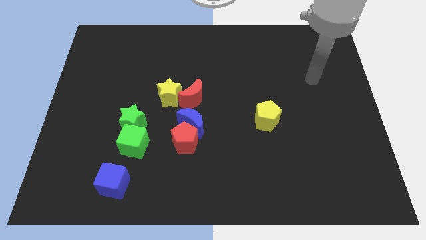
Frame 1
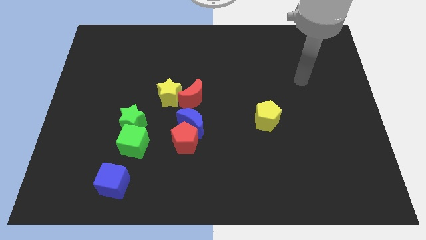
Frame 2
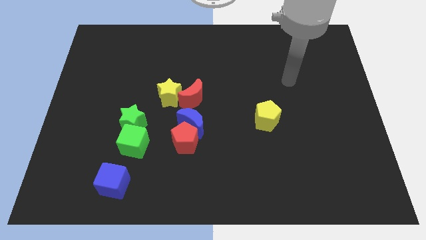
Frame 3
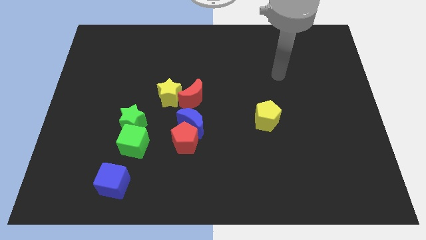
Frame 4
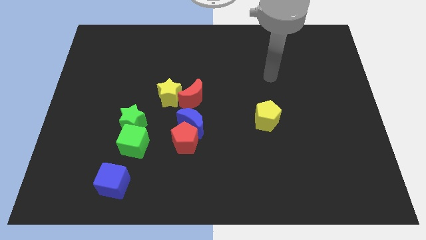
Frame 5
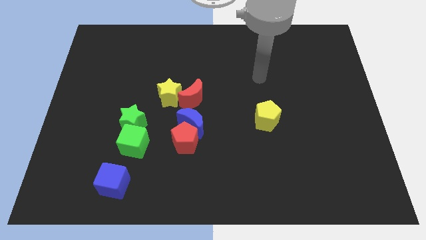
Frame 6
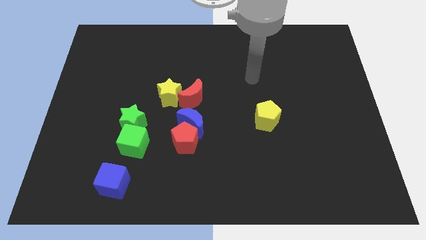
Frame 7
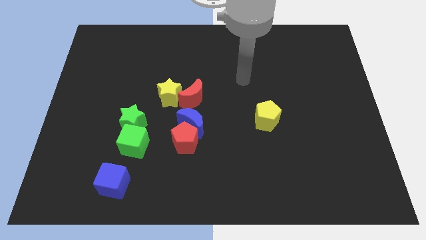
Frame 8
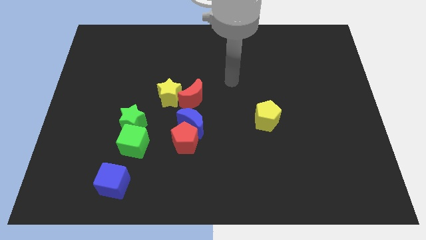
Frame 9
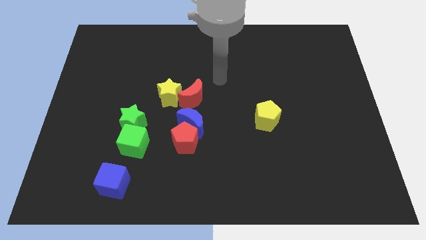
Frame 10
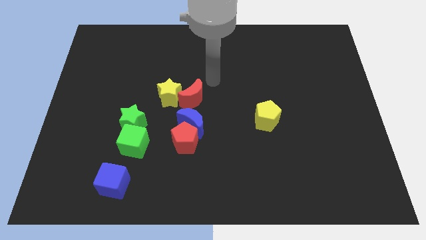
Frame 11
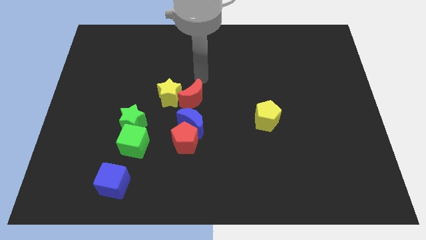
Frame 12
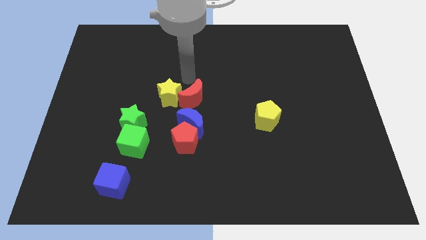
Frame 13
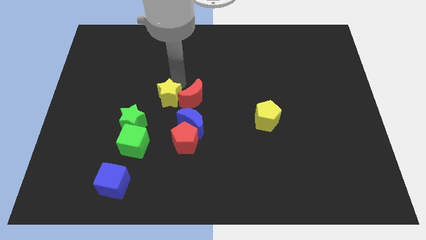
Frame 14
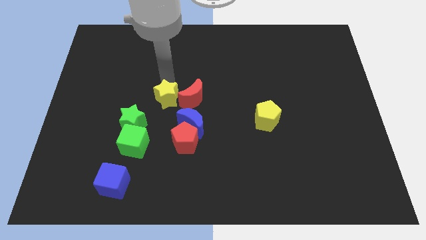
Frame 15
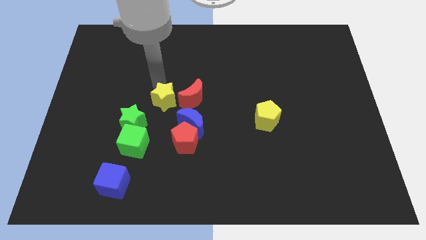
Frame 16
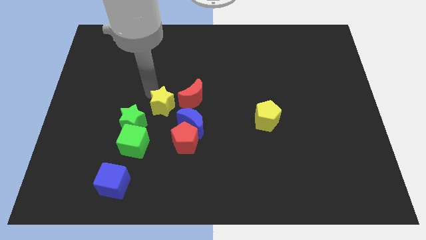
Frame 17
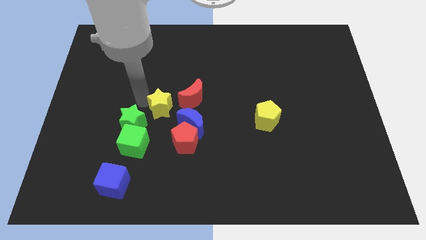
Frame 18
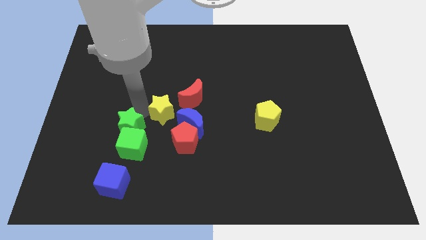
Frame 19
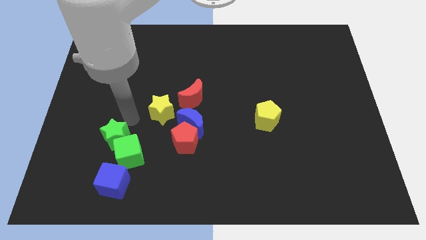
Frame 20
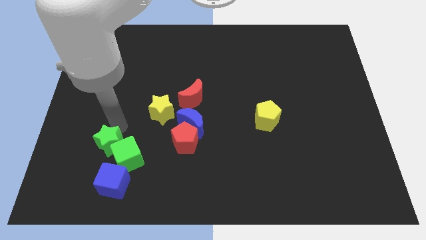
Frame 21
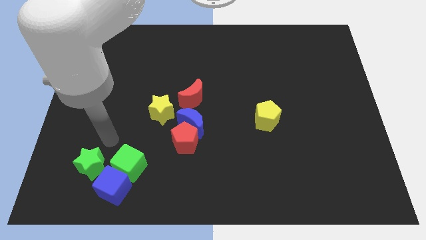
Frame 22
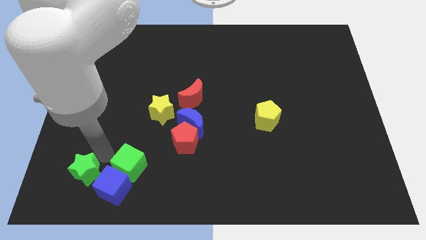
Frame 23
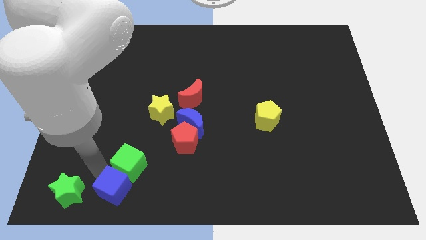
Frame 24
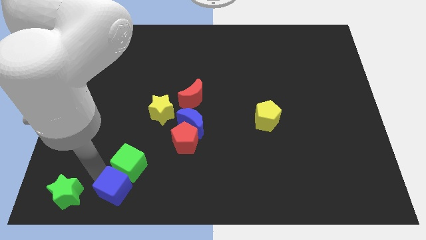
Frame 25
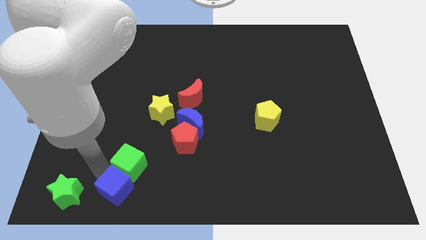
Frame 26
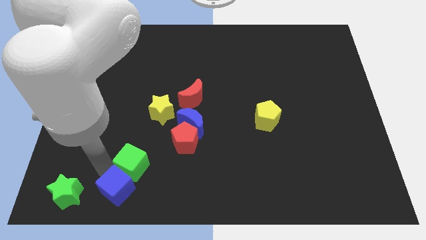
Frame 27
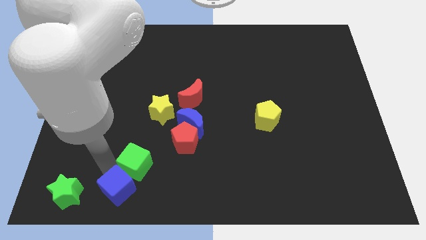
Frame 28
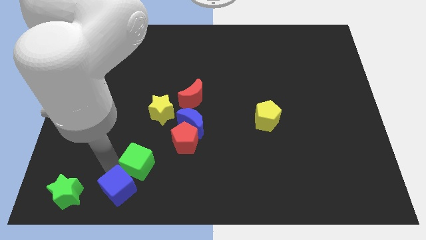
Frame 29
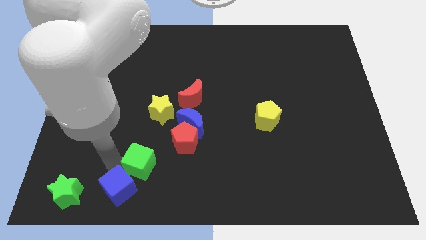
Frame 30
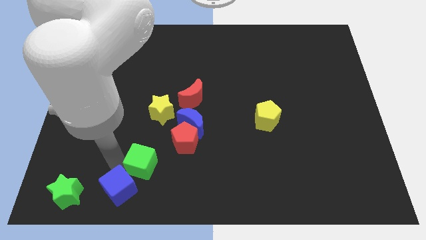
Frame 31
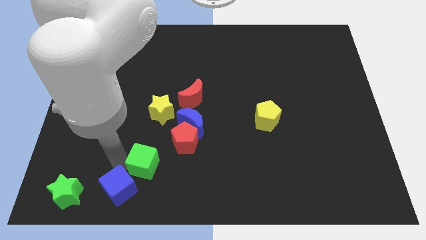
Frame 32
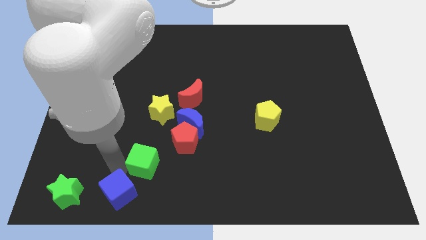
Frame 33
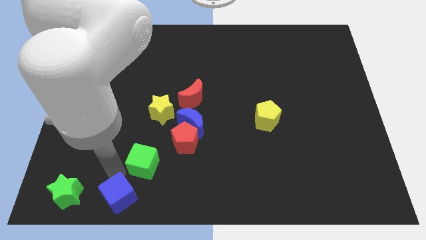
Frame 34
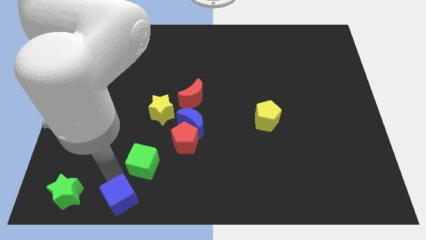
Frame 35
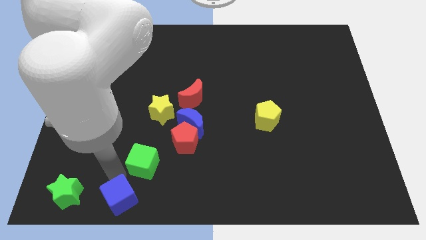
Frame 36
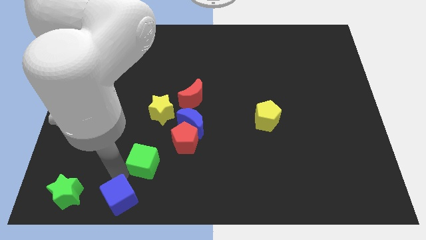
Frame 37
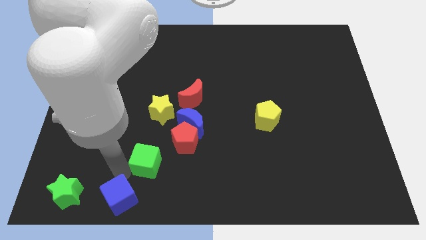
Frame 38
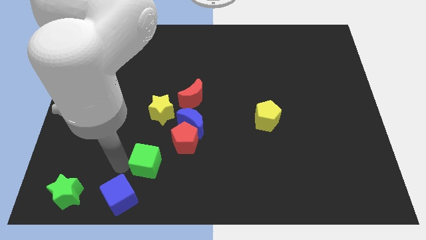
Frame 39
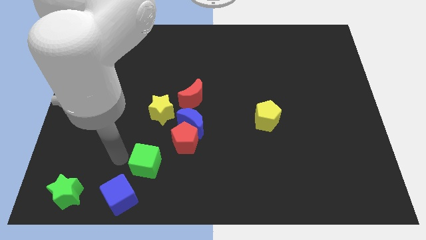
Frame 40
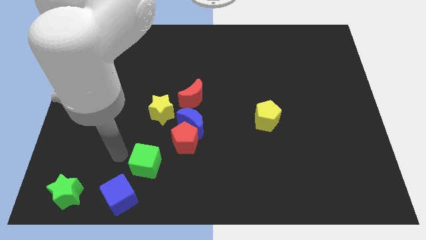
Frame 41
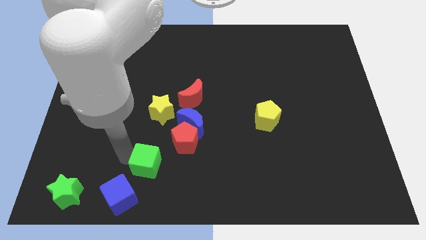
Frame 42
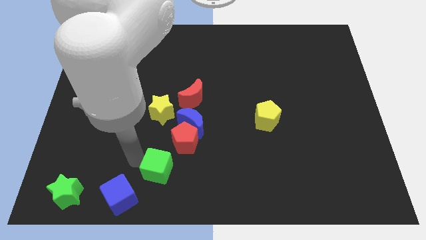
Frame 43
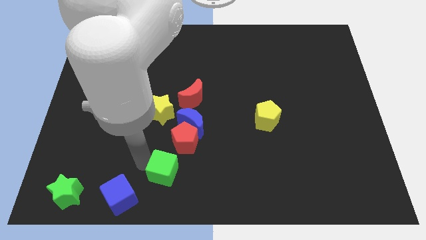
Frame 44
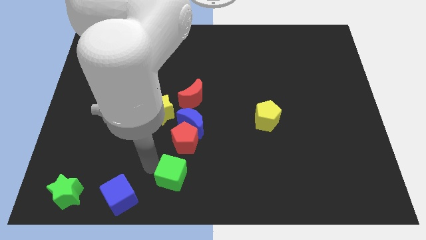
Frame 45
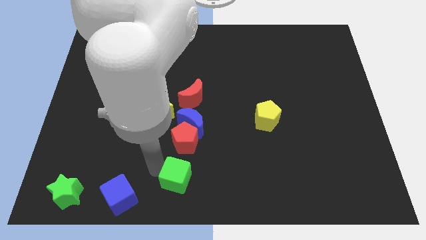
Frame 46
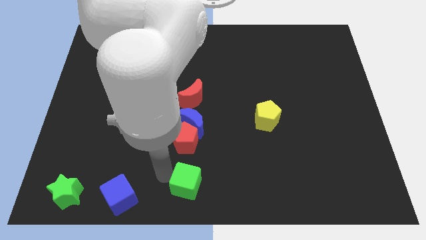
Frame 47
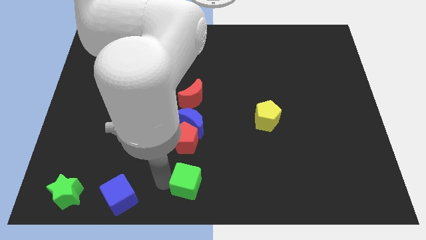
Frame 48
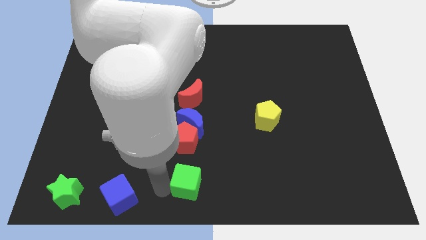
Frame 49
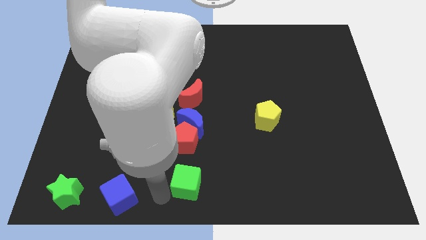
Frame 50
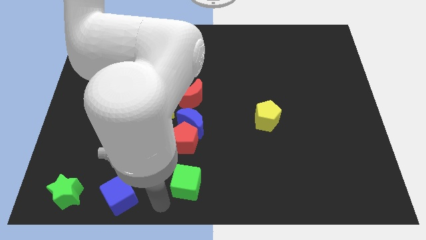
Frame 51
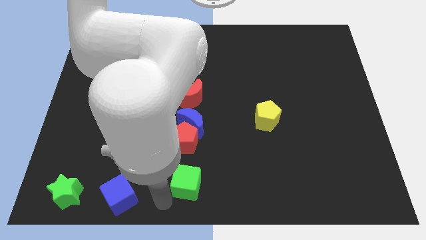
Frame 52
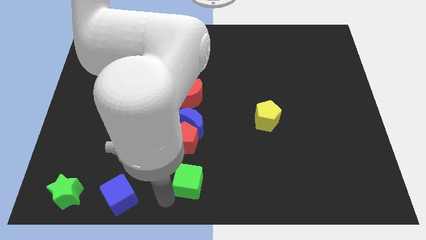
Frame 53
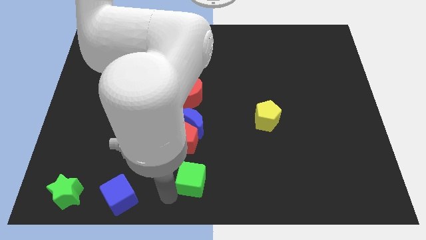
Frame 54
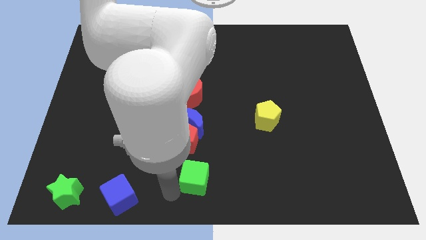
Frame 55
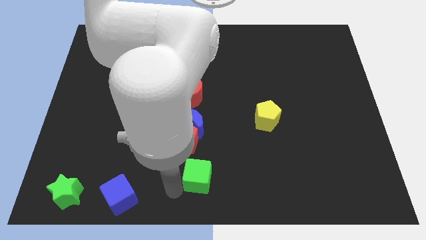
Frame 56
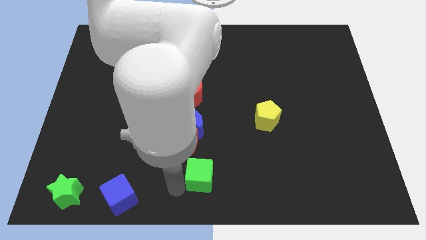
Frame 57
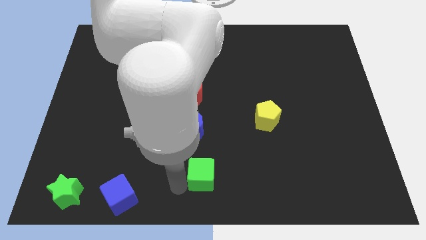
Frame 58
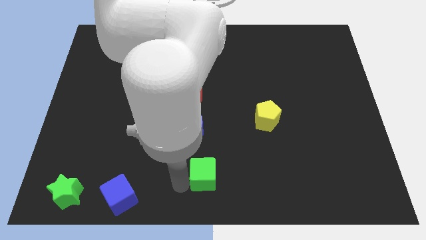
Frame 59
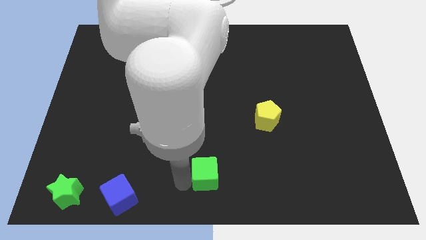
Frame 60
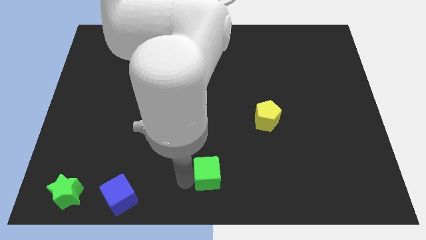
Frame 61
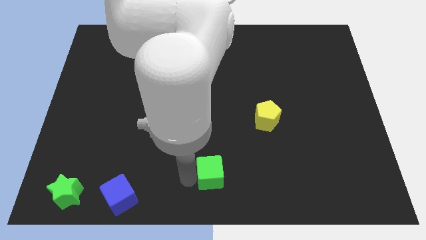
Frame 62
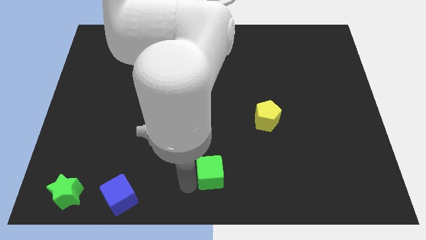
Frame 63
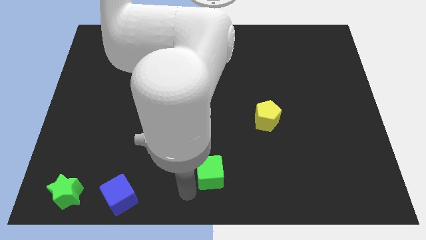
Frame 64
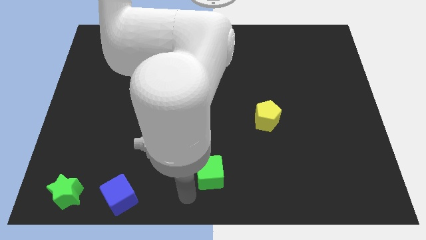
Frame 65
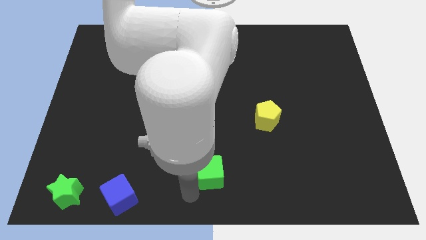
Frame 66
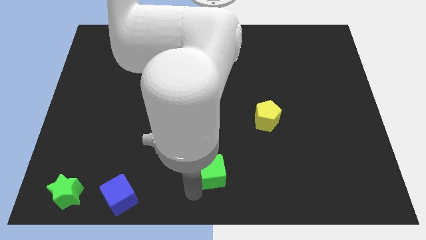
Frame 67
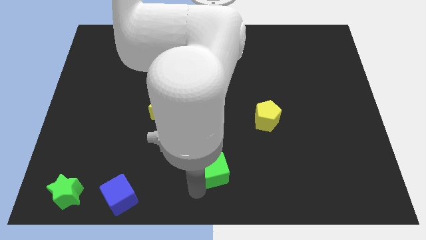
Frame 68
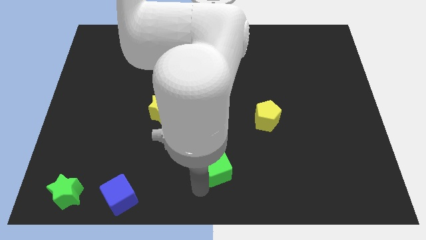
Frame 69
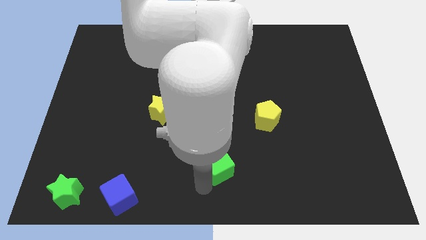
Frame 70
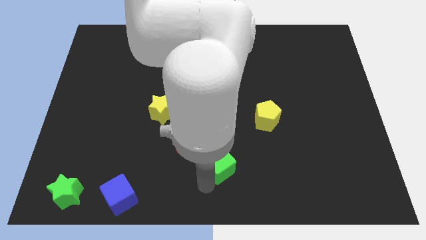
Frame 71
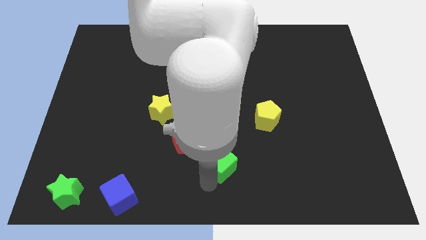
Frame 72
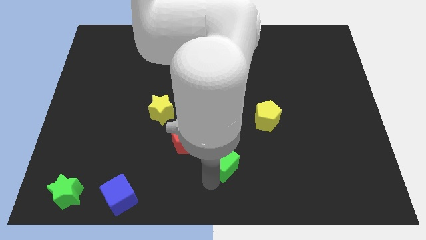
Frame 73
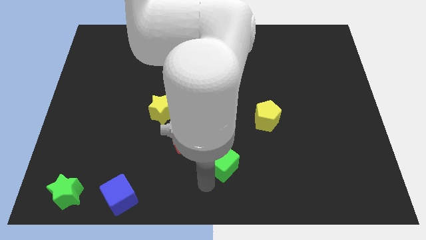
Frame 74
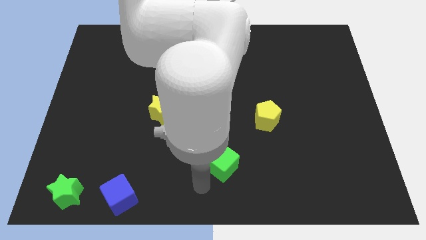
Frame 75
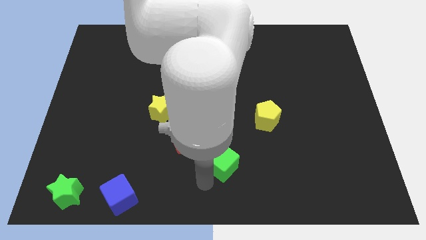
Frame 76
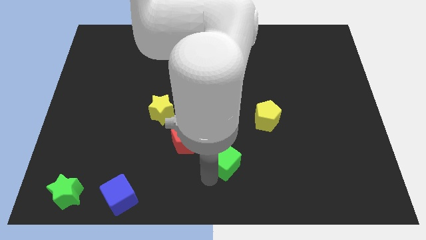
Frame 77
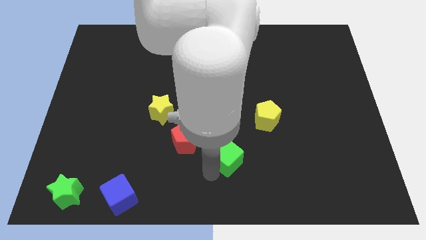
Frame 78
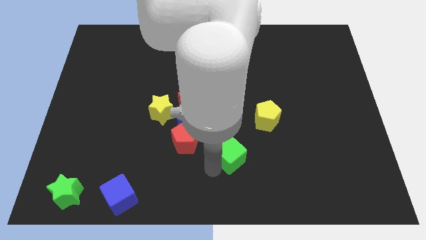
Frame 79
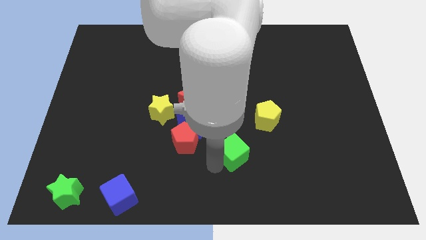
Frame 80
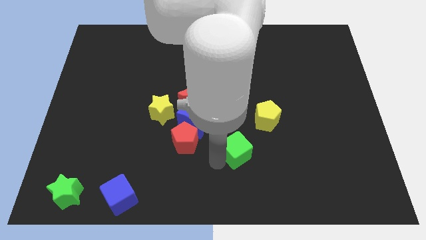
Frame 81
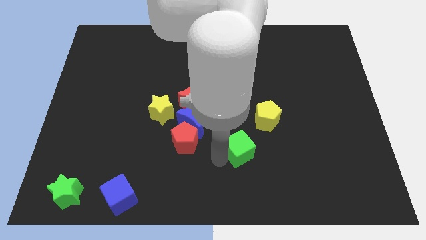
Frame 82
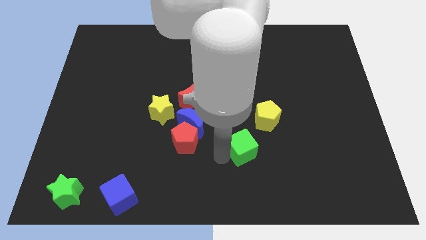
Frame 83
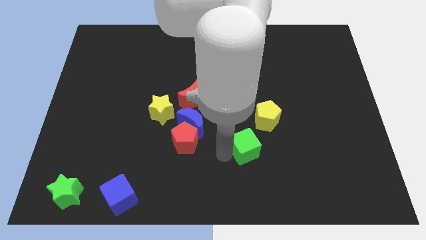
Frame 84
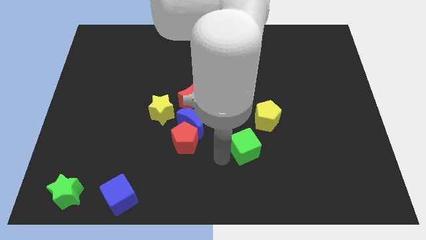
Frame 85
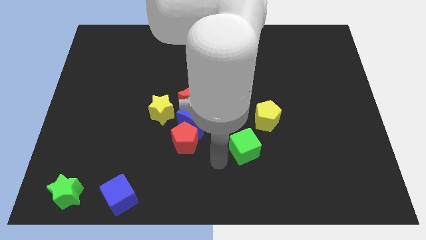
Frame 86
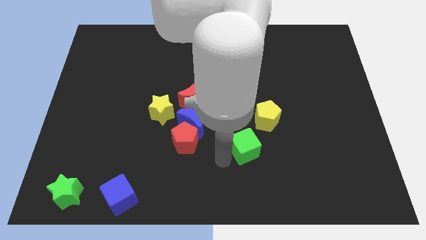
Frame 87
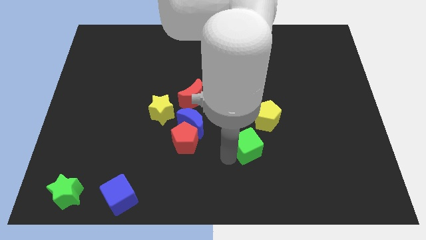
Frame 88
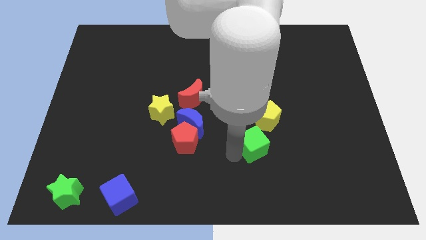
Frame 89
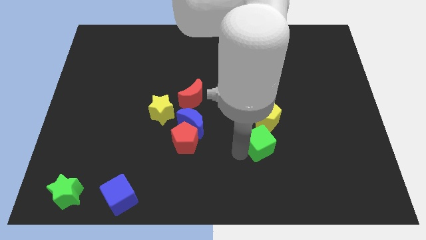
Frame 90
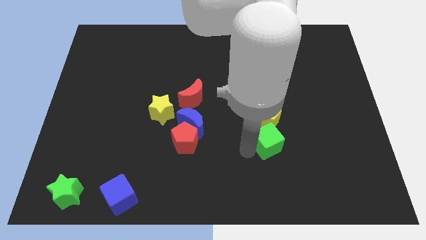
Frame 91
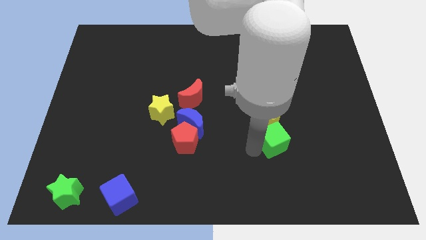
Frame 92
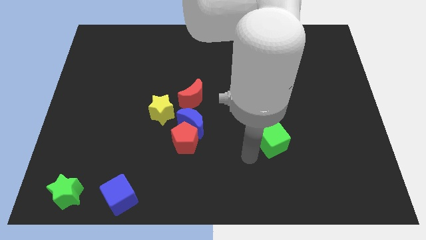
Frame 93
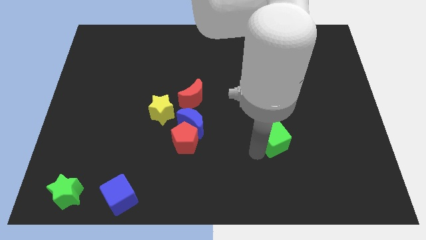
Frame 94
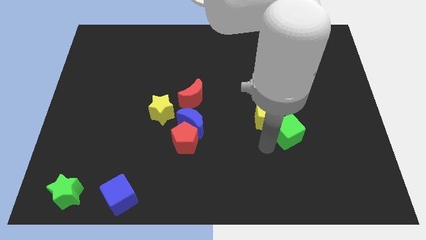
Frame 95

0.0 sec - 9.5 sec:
put the green cube just right of the yellow pentagon
